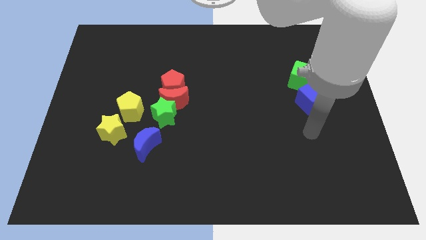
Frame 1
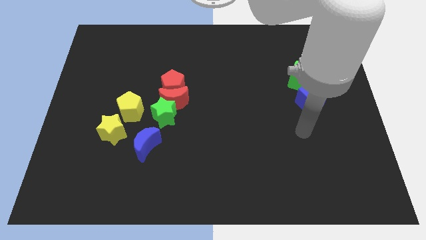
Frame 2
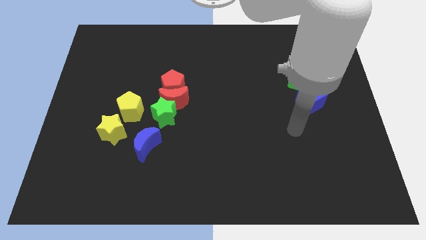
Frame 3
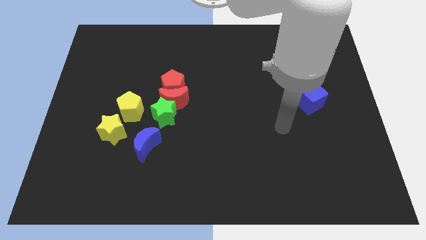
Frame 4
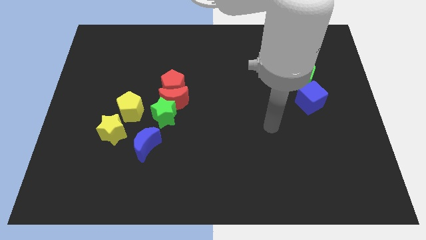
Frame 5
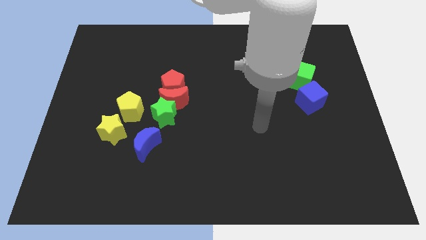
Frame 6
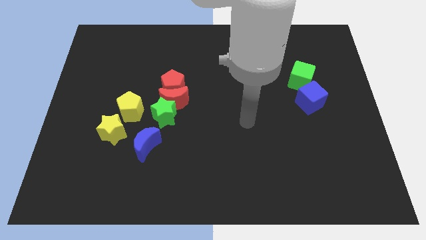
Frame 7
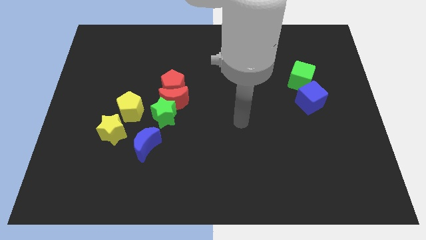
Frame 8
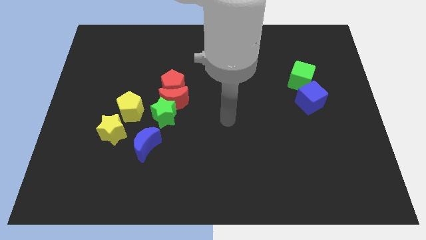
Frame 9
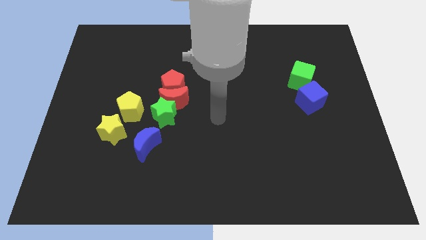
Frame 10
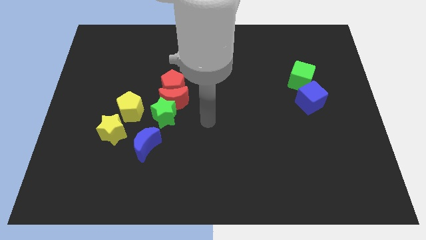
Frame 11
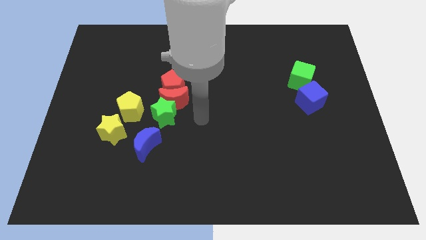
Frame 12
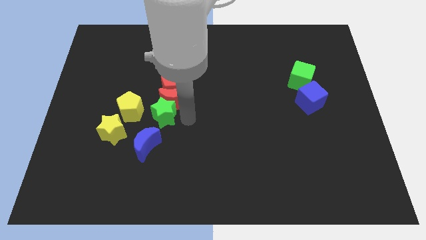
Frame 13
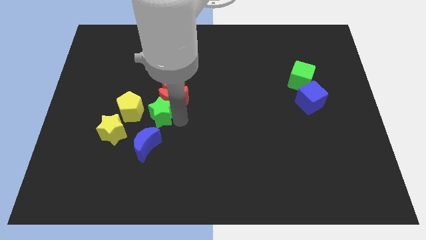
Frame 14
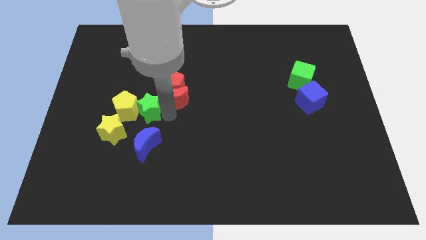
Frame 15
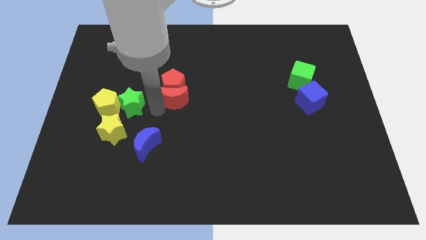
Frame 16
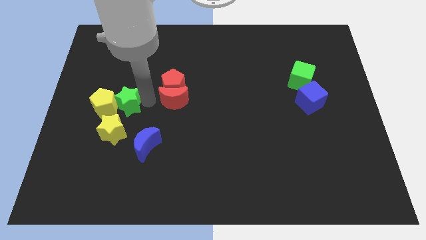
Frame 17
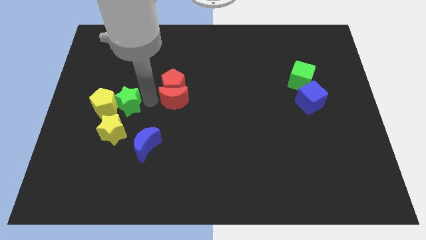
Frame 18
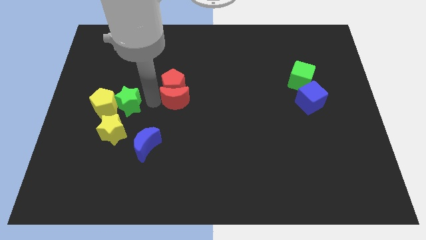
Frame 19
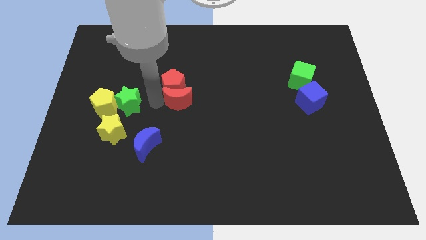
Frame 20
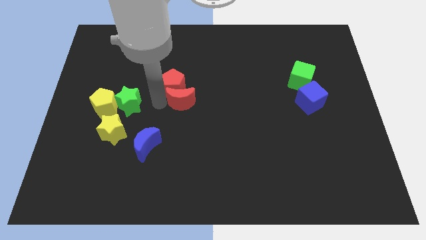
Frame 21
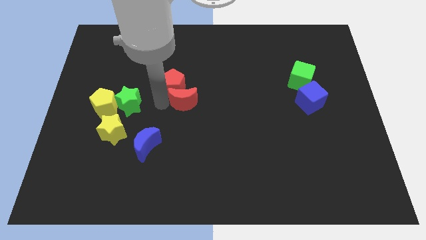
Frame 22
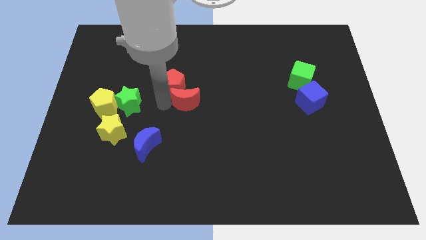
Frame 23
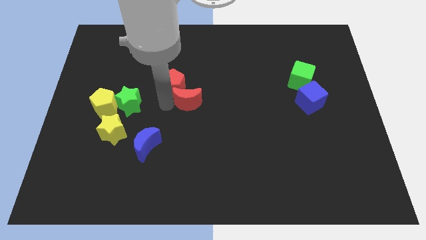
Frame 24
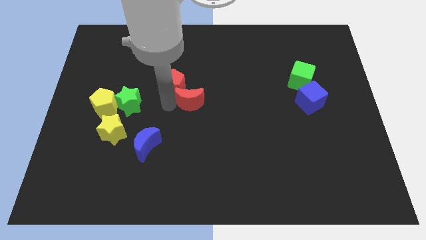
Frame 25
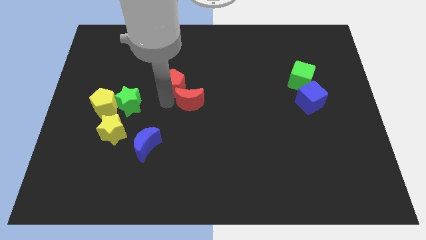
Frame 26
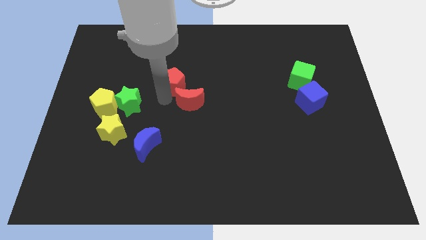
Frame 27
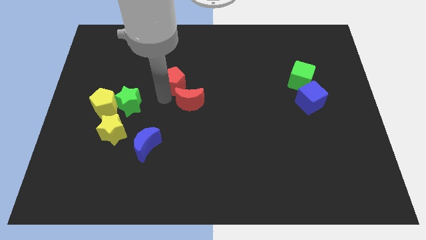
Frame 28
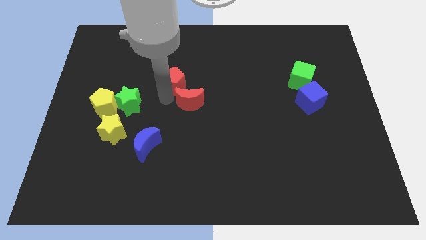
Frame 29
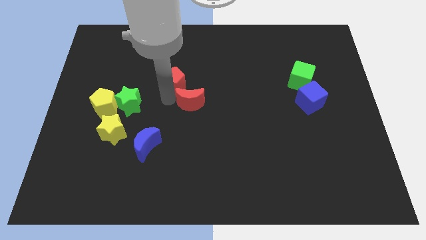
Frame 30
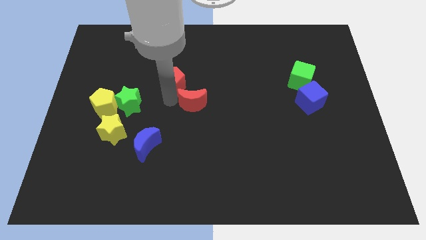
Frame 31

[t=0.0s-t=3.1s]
separate the red moon from the red pentagon and green star

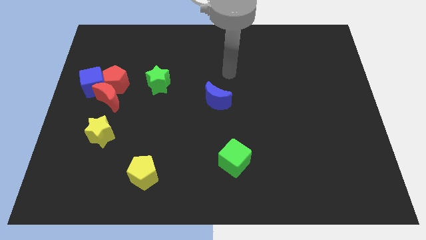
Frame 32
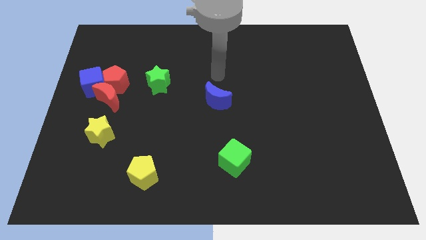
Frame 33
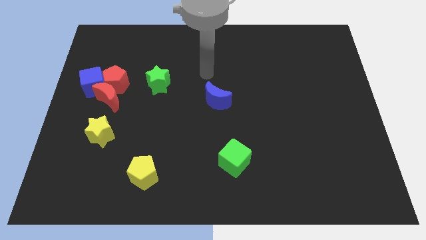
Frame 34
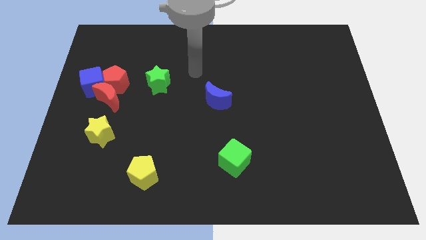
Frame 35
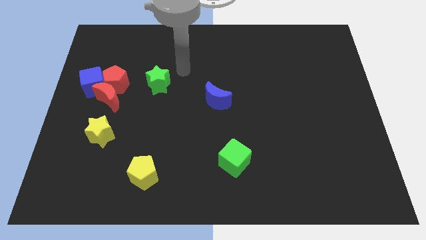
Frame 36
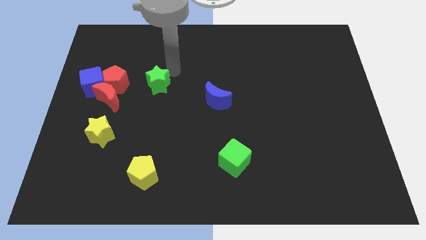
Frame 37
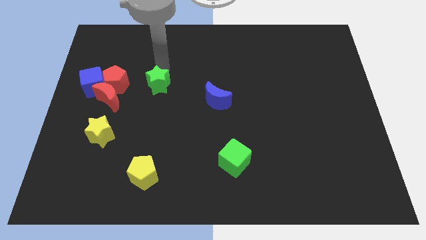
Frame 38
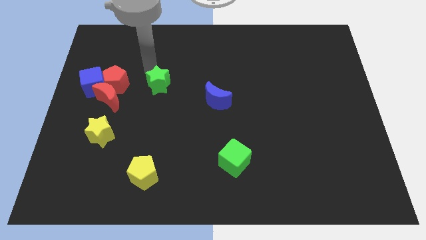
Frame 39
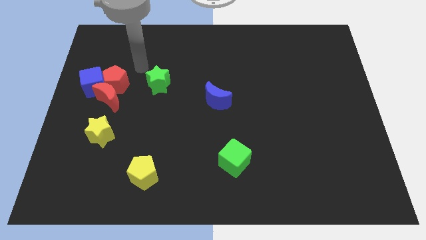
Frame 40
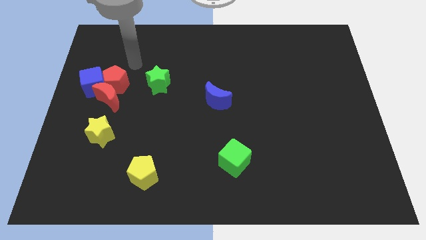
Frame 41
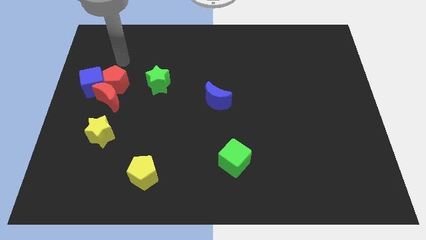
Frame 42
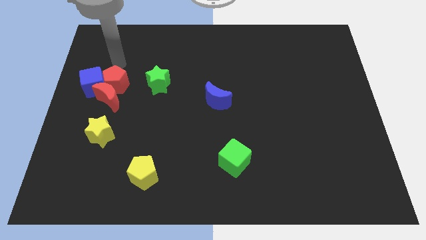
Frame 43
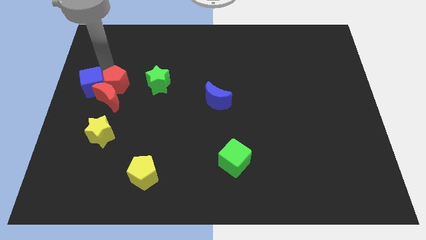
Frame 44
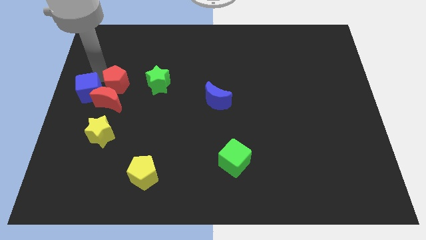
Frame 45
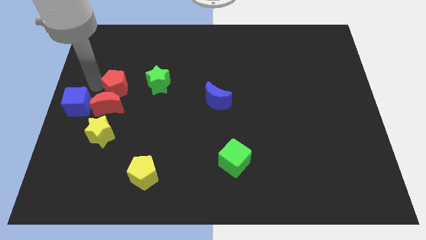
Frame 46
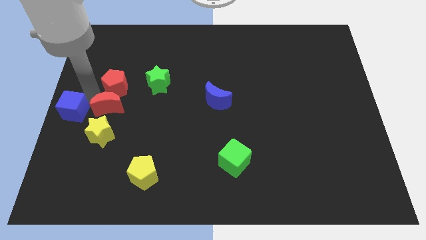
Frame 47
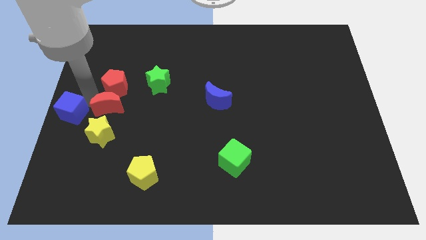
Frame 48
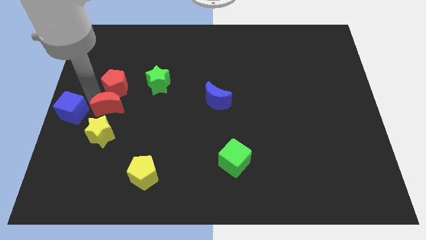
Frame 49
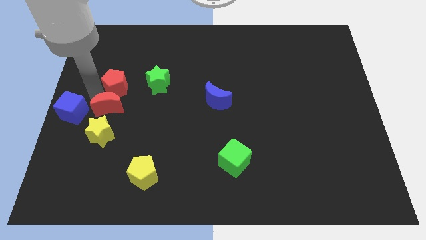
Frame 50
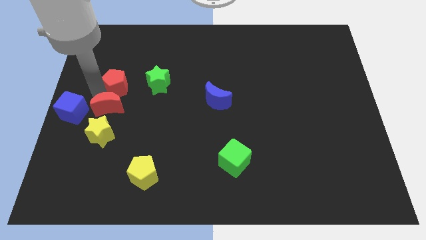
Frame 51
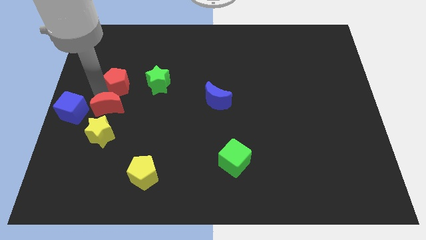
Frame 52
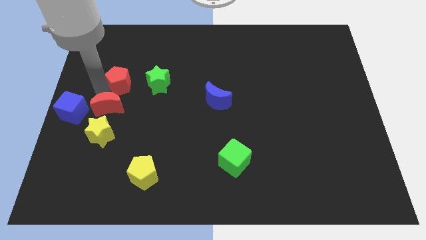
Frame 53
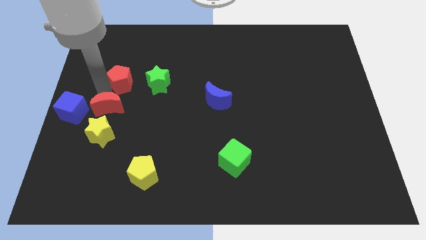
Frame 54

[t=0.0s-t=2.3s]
separate the red pentagon from the red moon and blue cube

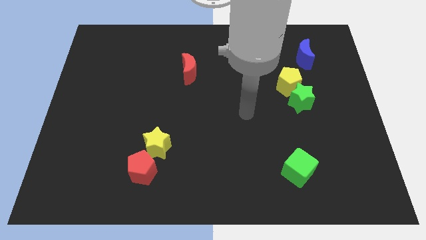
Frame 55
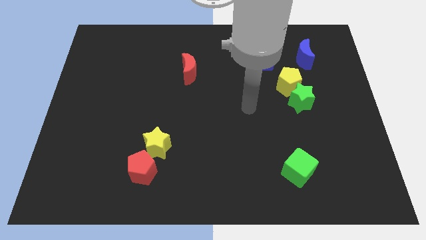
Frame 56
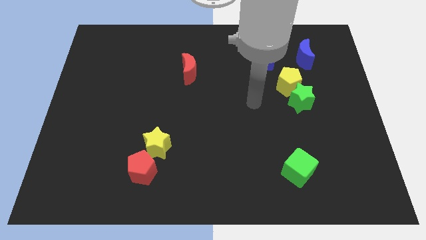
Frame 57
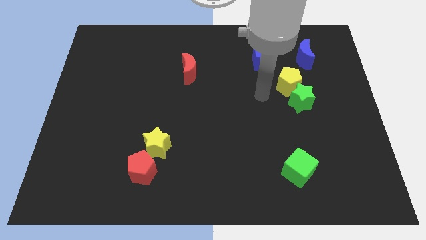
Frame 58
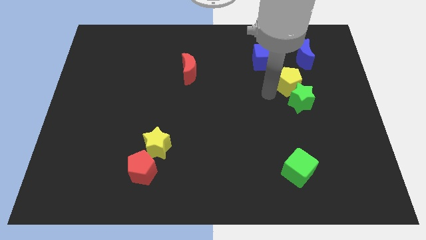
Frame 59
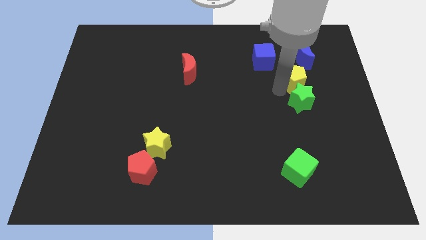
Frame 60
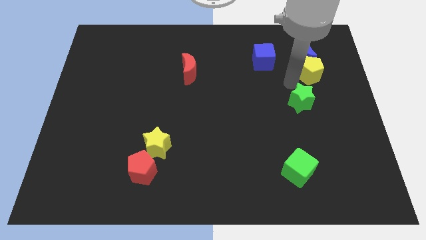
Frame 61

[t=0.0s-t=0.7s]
separate the green star from the yellow pentagon

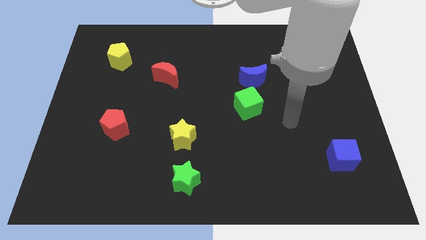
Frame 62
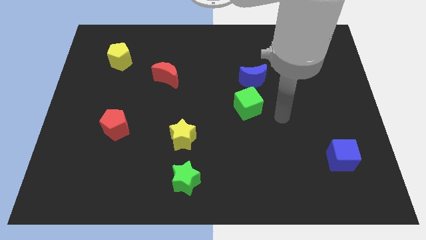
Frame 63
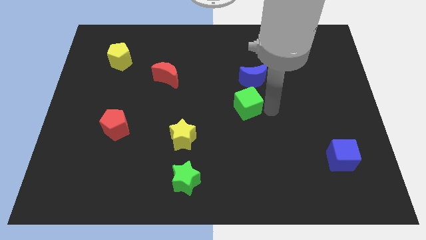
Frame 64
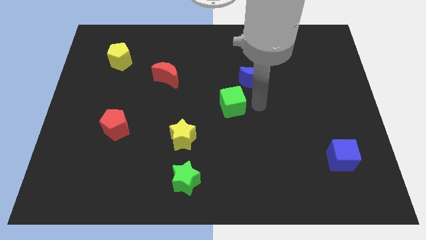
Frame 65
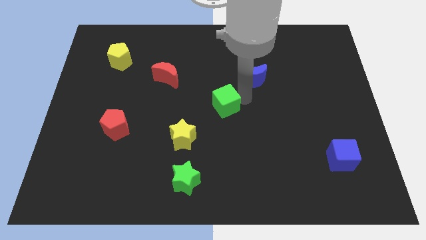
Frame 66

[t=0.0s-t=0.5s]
separate the blue moon from the green cube

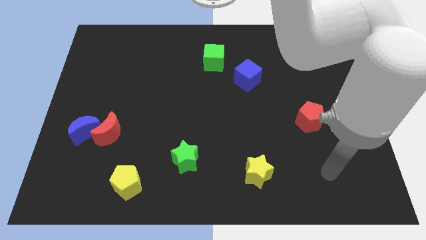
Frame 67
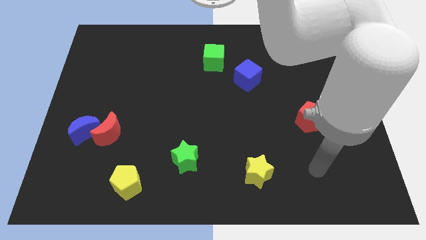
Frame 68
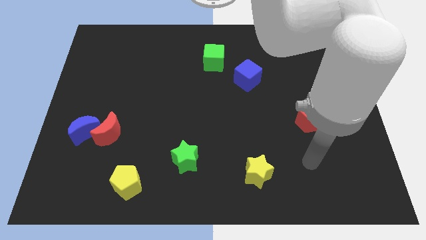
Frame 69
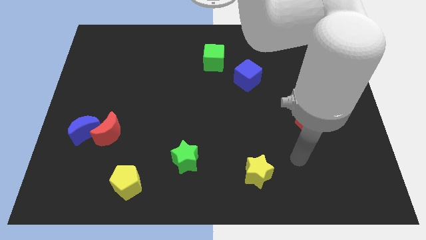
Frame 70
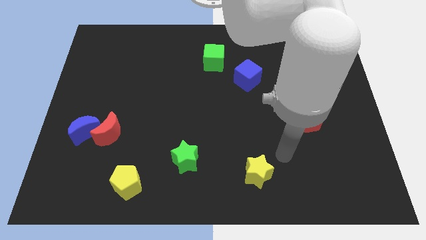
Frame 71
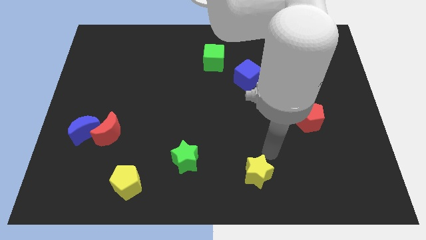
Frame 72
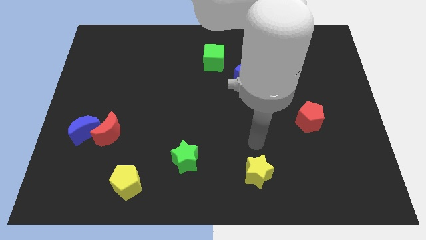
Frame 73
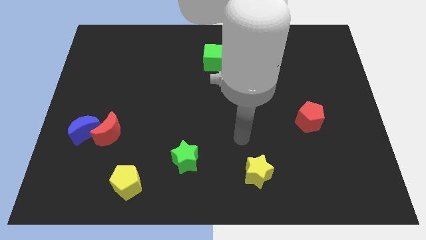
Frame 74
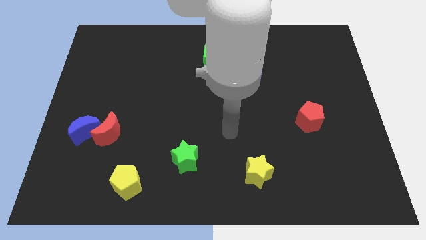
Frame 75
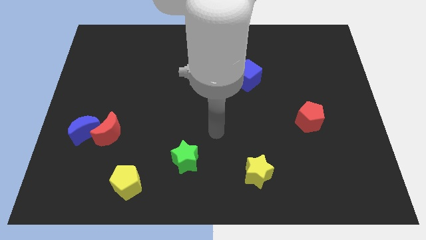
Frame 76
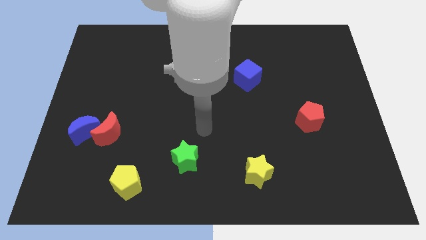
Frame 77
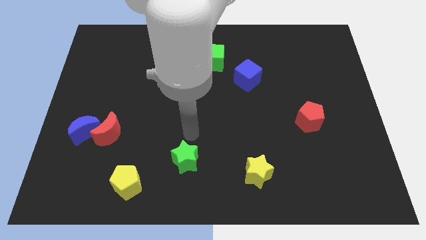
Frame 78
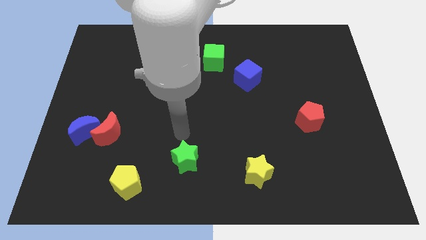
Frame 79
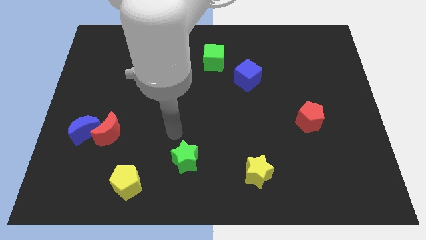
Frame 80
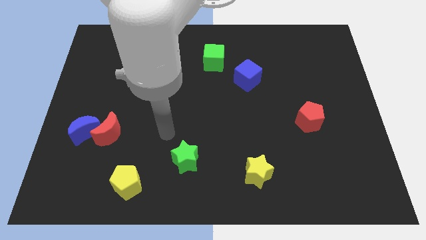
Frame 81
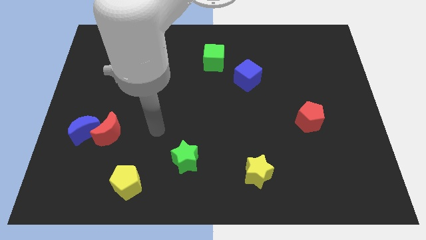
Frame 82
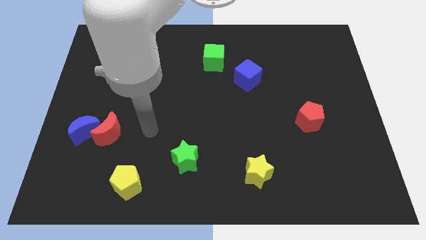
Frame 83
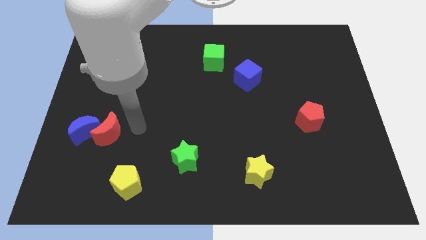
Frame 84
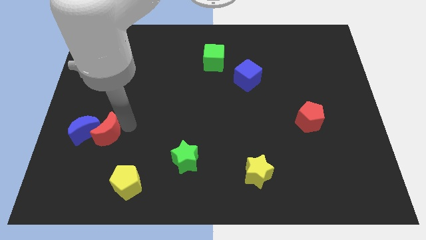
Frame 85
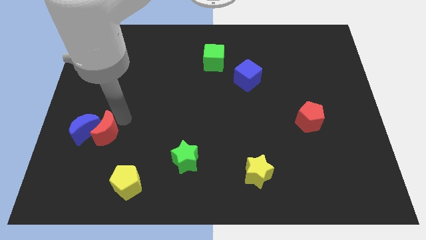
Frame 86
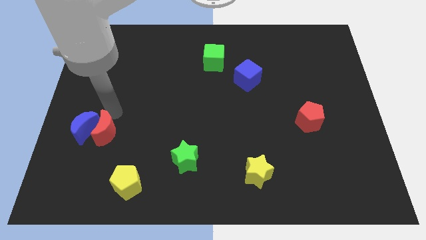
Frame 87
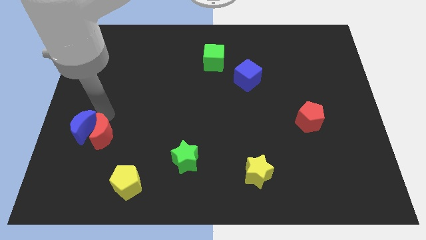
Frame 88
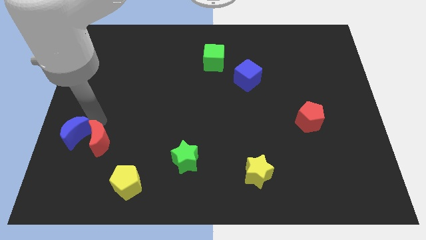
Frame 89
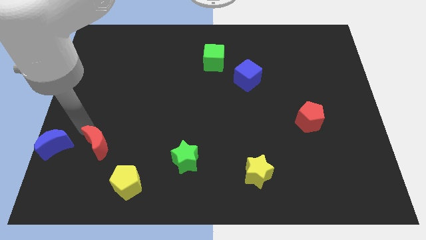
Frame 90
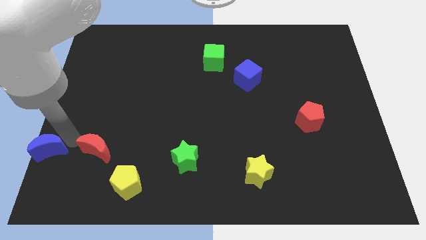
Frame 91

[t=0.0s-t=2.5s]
move the red moon away from the blue moon

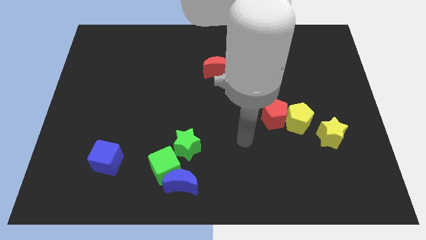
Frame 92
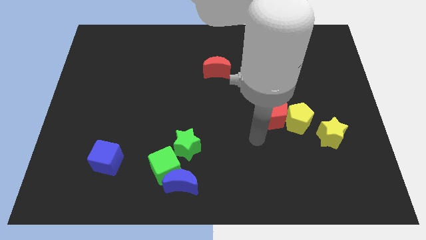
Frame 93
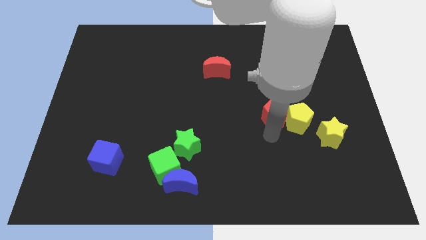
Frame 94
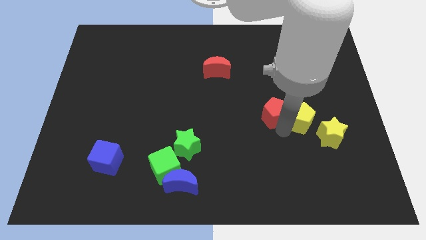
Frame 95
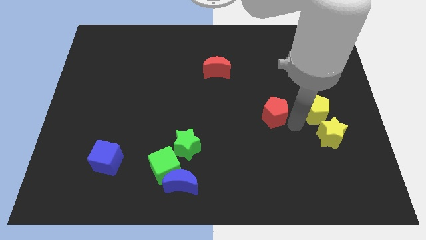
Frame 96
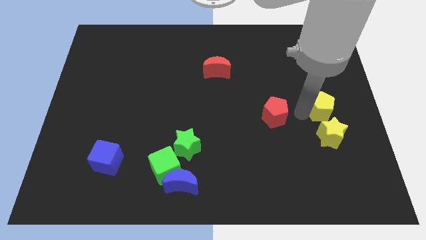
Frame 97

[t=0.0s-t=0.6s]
pull the red pentagon apart from the yellow pentagon
